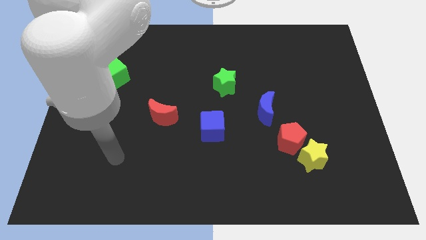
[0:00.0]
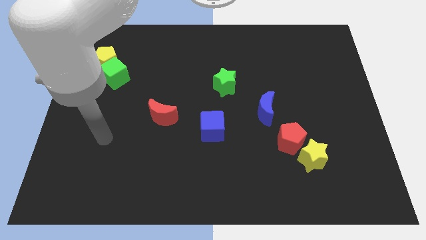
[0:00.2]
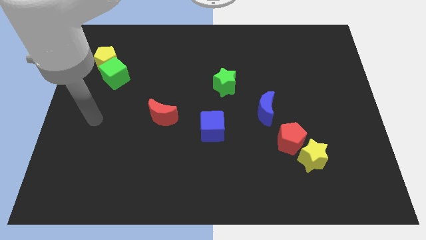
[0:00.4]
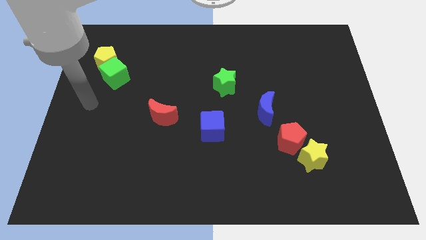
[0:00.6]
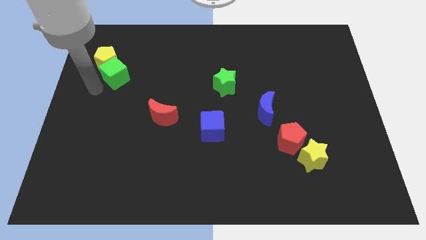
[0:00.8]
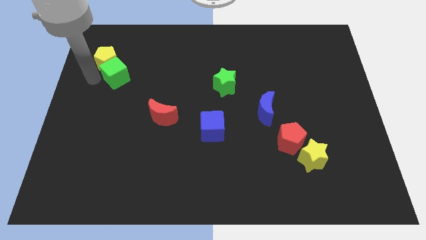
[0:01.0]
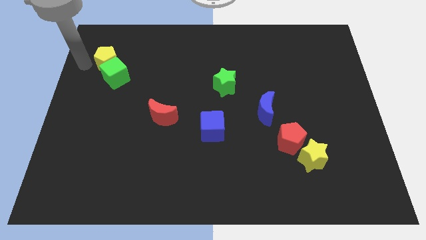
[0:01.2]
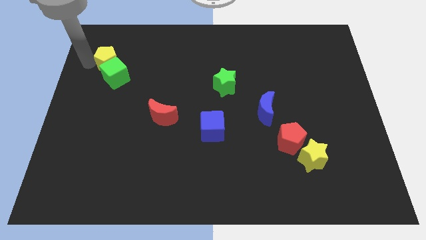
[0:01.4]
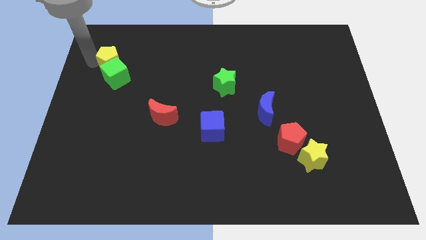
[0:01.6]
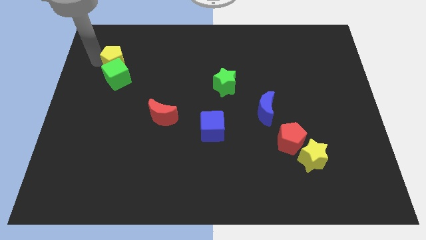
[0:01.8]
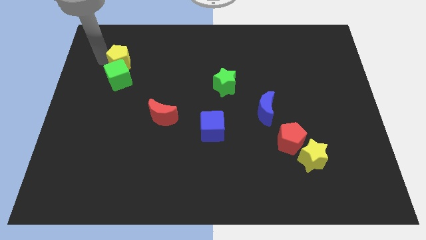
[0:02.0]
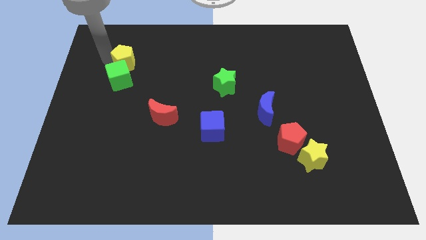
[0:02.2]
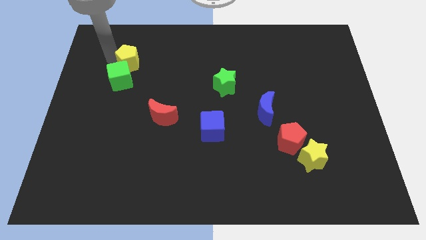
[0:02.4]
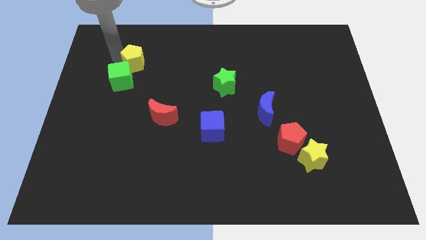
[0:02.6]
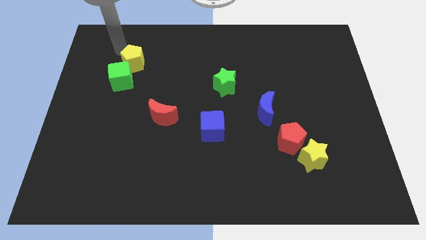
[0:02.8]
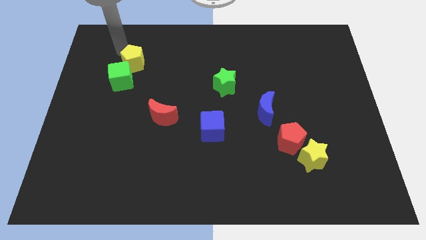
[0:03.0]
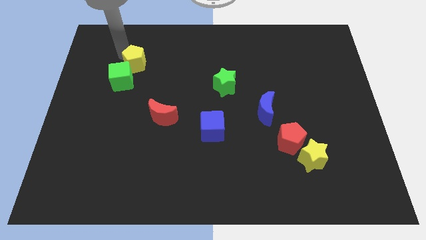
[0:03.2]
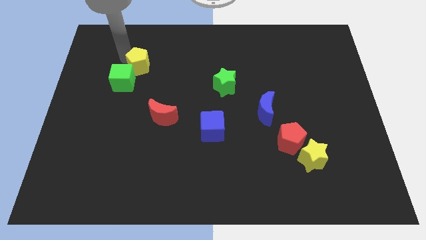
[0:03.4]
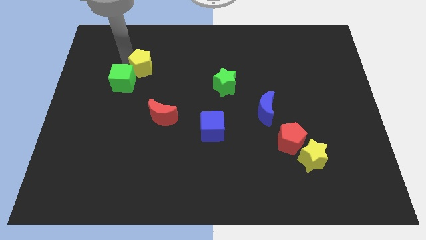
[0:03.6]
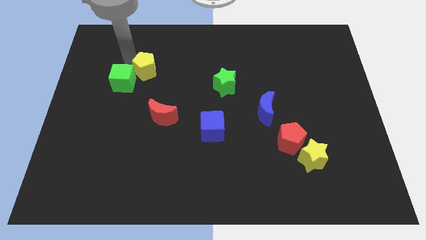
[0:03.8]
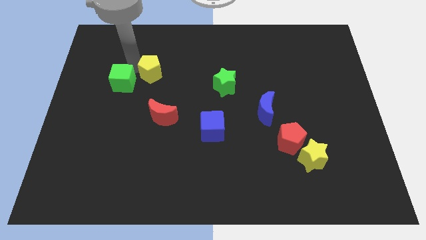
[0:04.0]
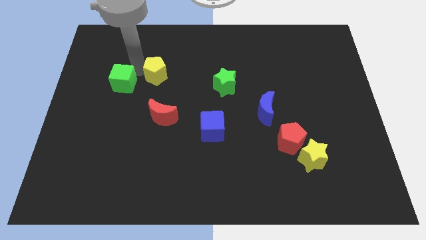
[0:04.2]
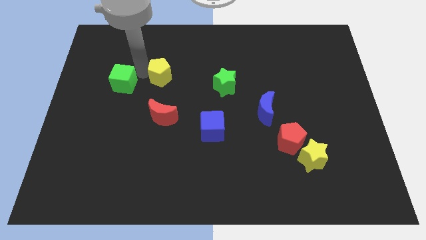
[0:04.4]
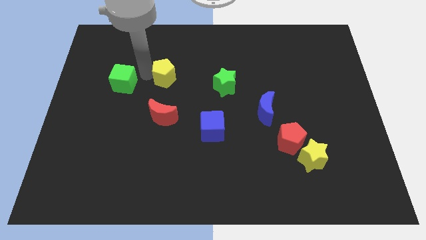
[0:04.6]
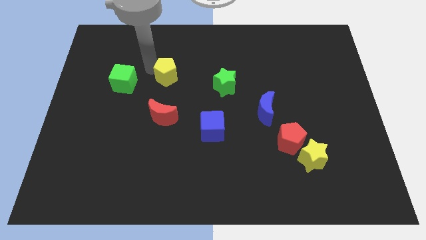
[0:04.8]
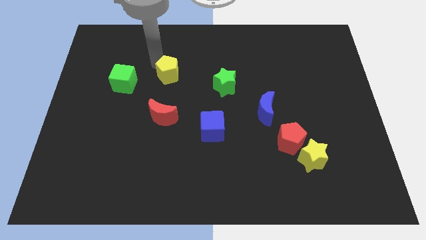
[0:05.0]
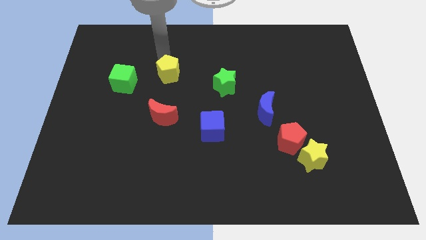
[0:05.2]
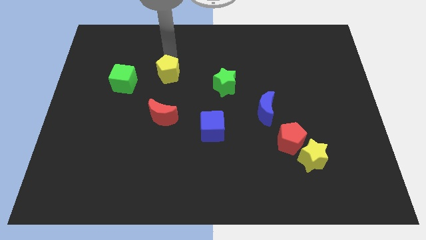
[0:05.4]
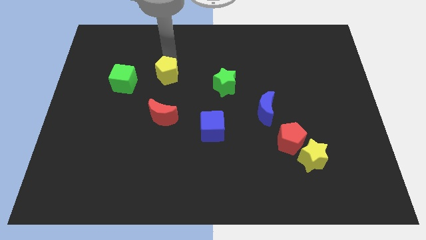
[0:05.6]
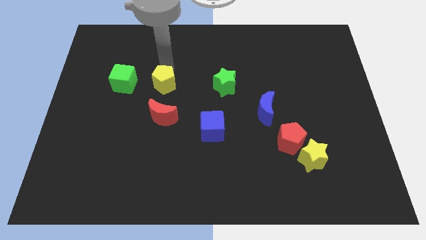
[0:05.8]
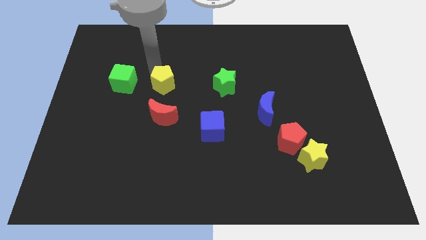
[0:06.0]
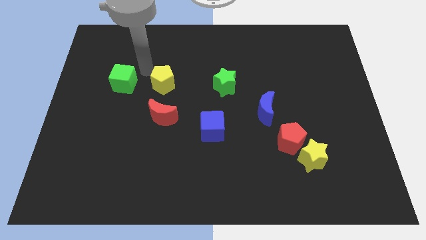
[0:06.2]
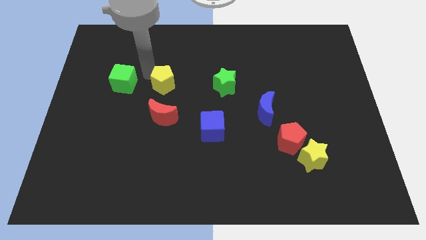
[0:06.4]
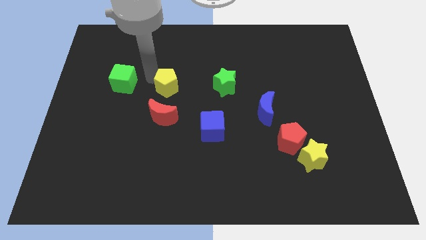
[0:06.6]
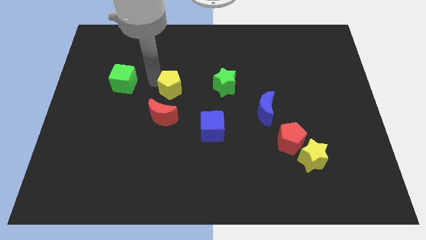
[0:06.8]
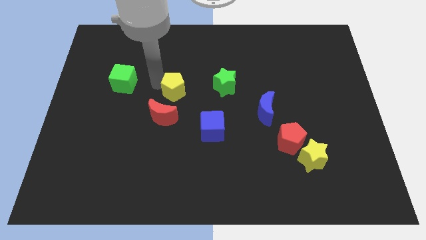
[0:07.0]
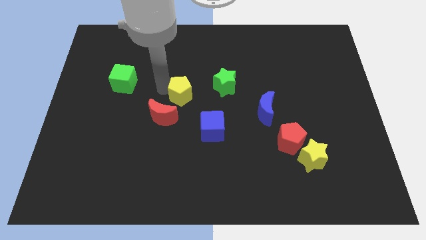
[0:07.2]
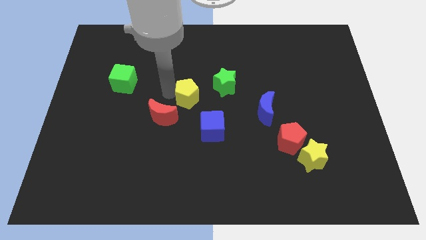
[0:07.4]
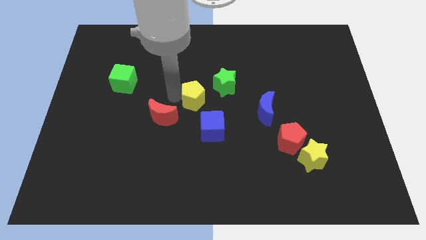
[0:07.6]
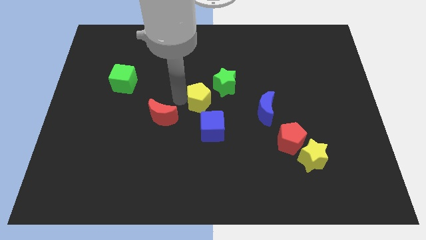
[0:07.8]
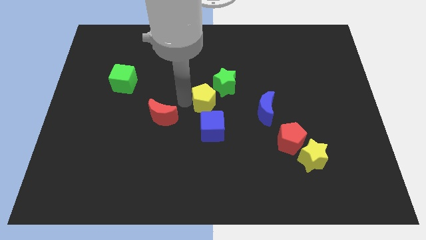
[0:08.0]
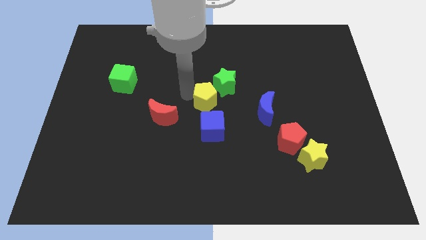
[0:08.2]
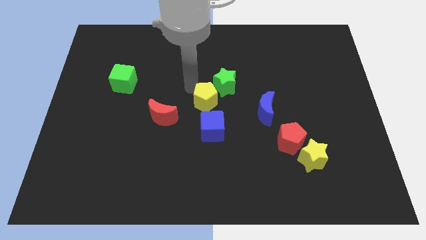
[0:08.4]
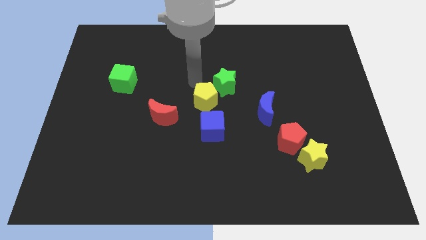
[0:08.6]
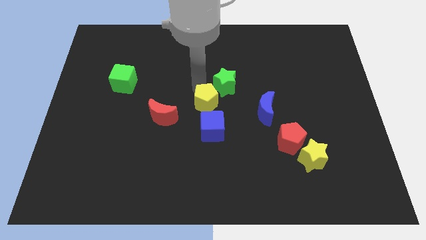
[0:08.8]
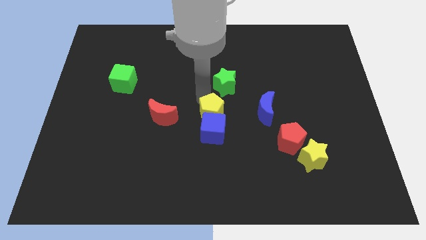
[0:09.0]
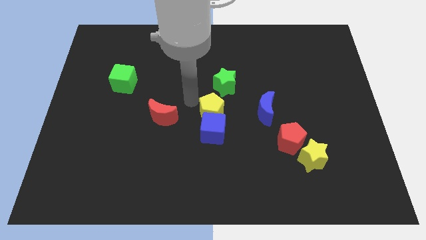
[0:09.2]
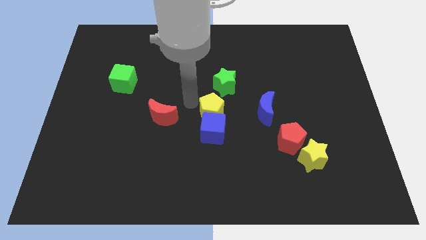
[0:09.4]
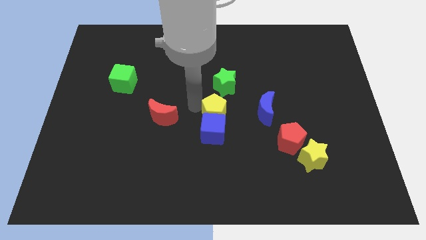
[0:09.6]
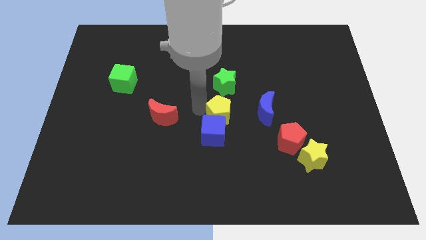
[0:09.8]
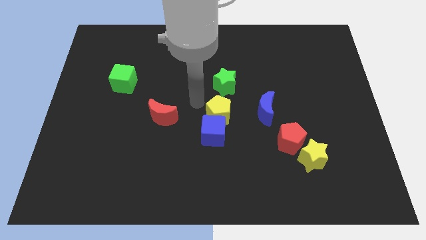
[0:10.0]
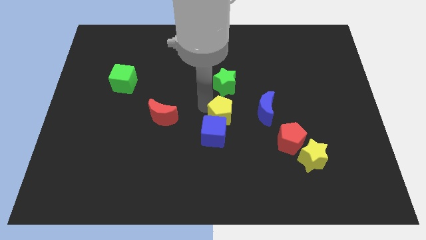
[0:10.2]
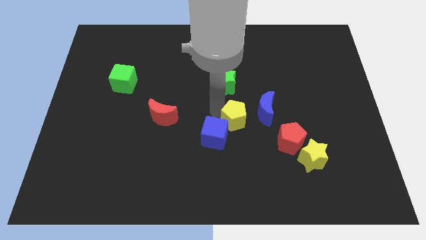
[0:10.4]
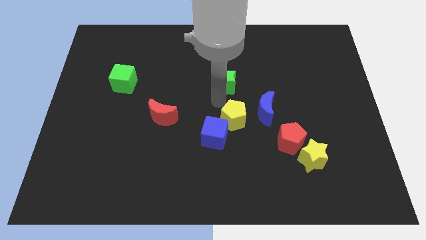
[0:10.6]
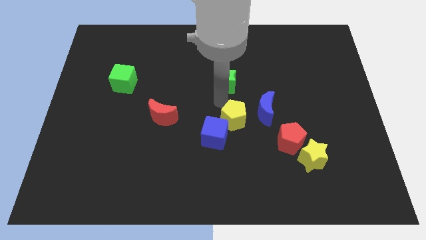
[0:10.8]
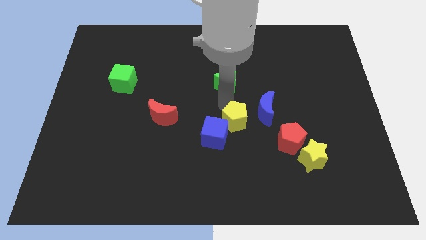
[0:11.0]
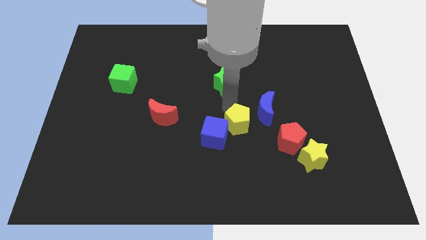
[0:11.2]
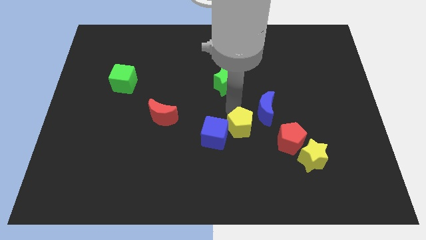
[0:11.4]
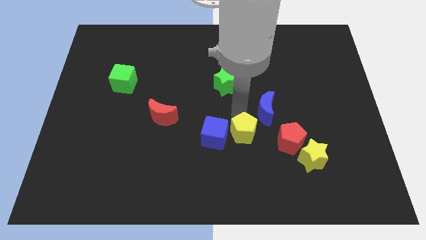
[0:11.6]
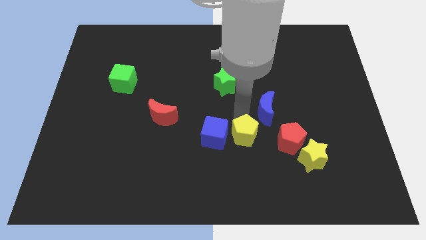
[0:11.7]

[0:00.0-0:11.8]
push the yellow pentagon below the blue moon

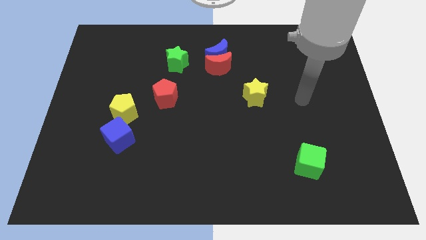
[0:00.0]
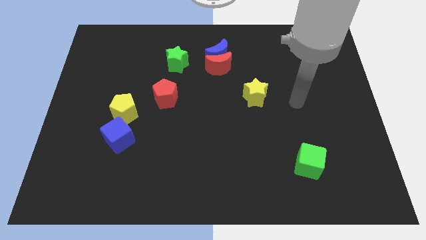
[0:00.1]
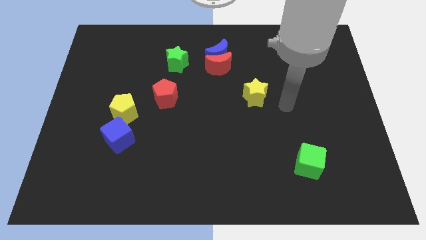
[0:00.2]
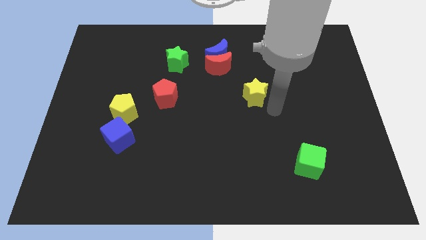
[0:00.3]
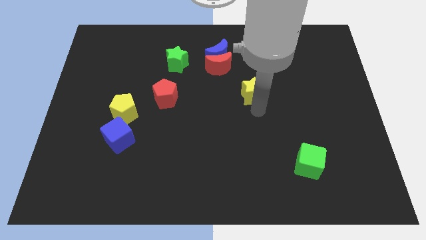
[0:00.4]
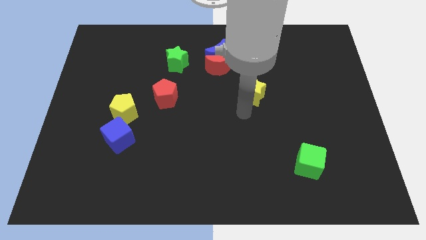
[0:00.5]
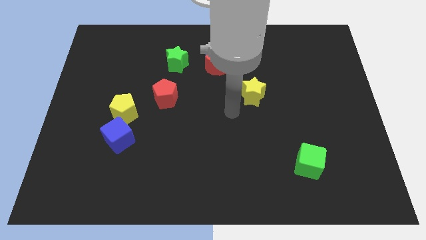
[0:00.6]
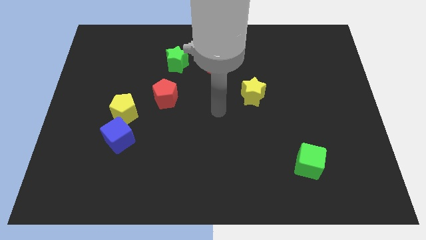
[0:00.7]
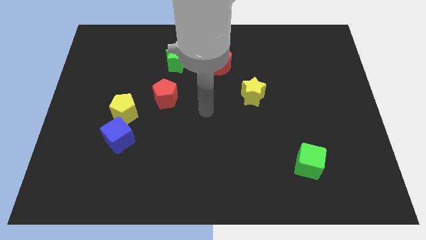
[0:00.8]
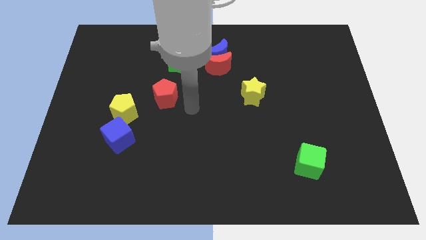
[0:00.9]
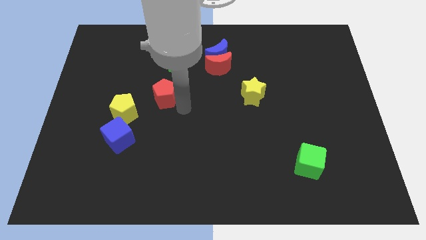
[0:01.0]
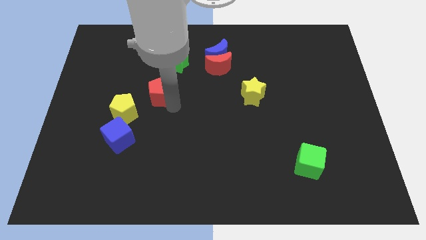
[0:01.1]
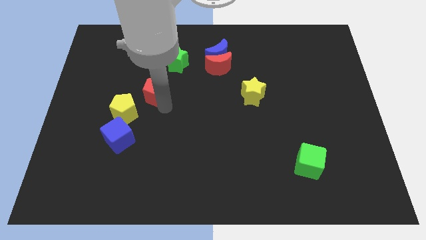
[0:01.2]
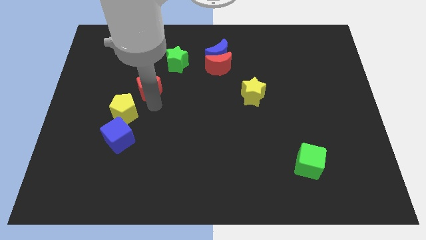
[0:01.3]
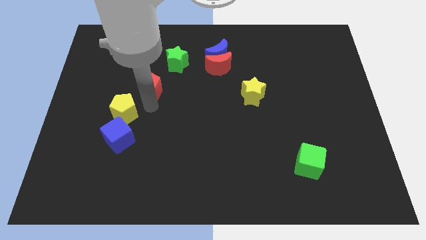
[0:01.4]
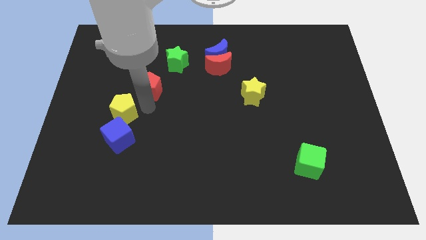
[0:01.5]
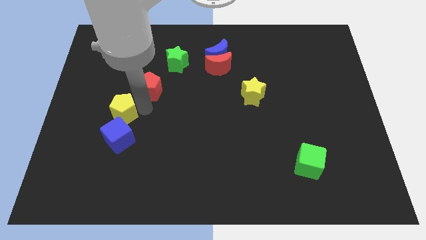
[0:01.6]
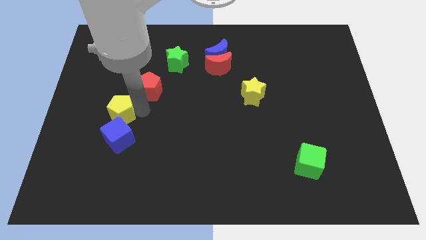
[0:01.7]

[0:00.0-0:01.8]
move the yellow pentagon to the top left side of the blue cube

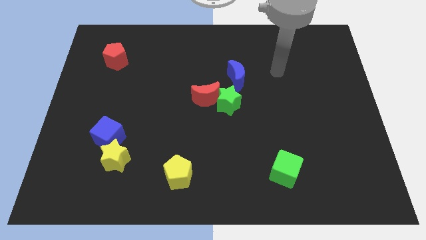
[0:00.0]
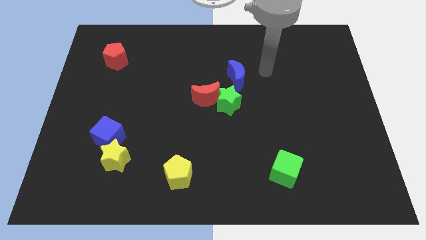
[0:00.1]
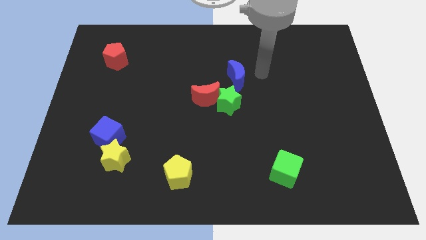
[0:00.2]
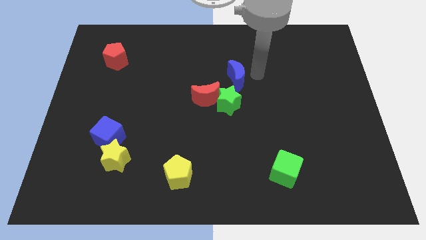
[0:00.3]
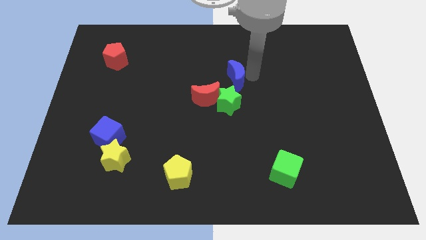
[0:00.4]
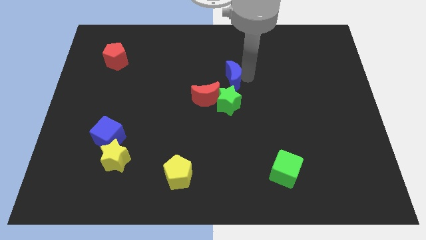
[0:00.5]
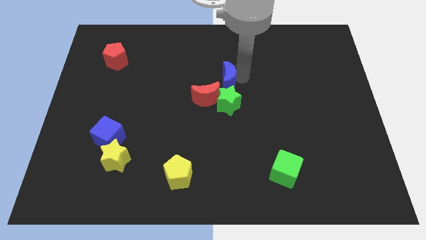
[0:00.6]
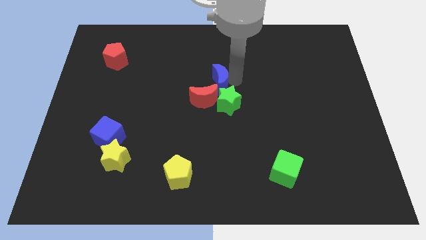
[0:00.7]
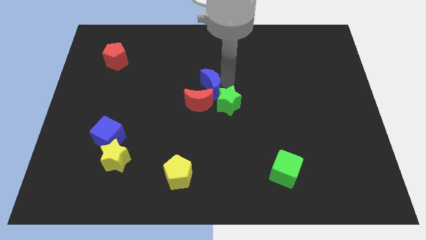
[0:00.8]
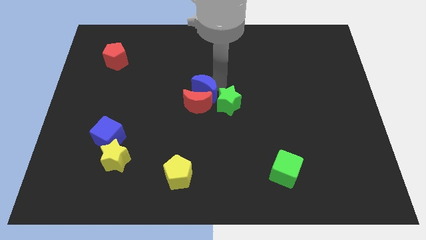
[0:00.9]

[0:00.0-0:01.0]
put the blue moon to the top left of the red moon
